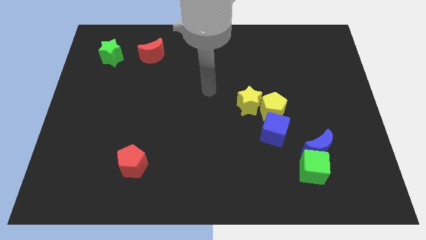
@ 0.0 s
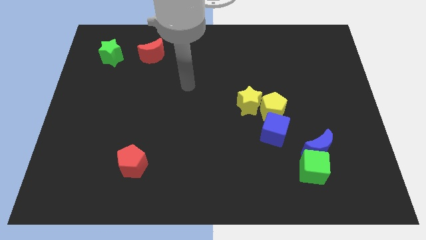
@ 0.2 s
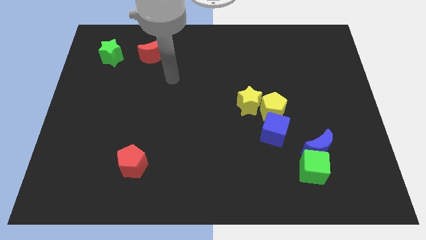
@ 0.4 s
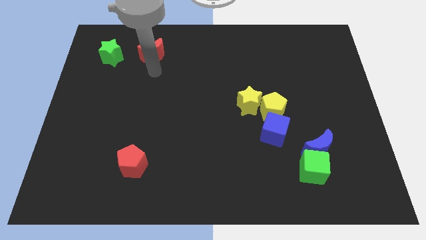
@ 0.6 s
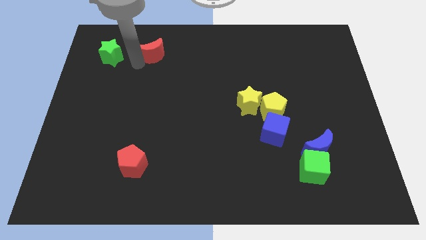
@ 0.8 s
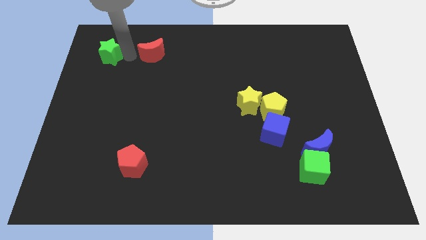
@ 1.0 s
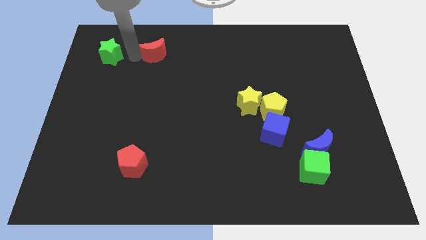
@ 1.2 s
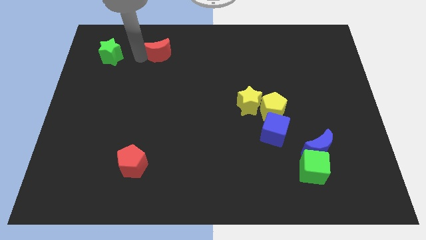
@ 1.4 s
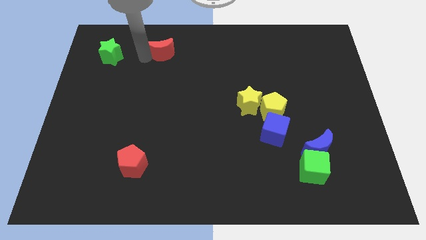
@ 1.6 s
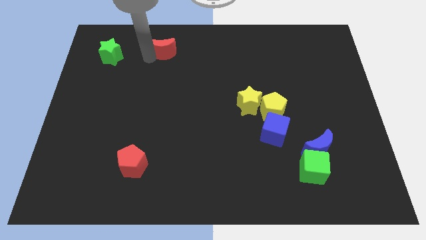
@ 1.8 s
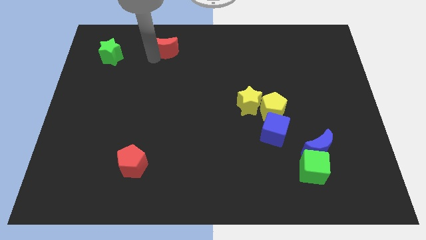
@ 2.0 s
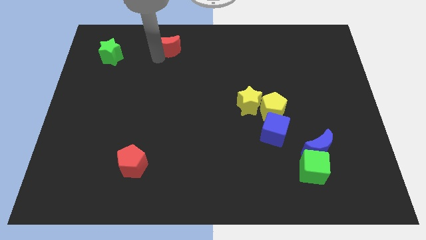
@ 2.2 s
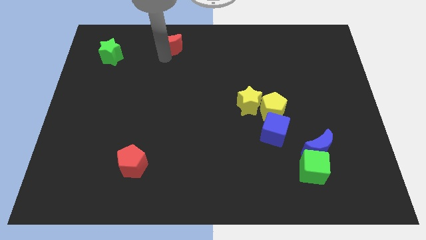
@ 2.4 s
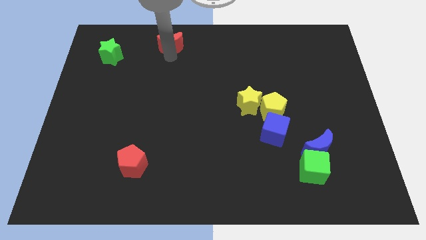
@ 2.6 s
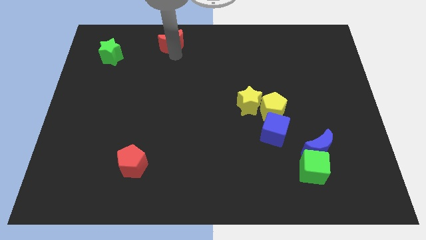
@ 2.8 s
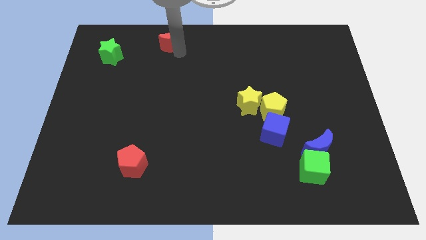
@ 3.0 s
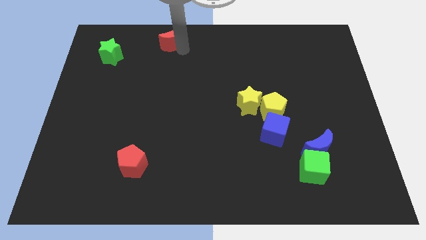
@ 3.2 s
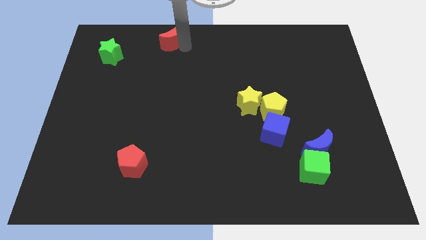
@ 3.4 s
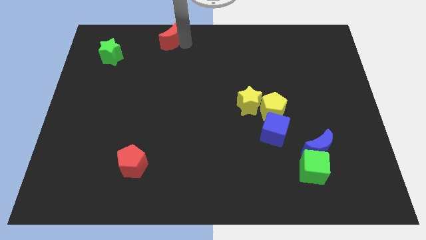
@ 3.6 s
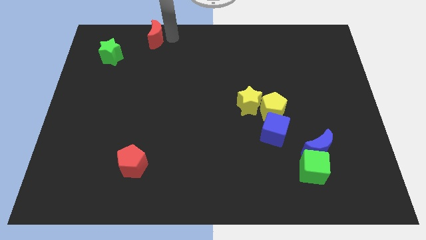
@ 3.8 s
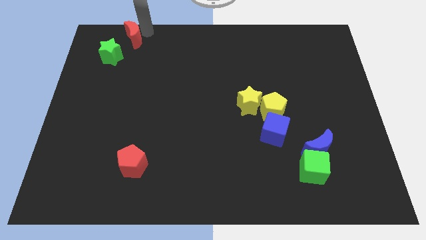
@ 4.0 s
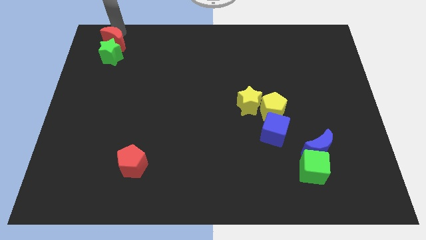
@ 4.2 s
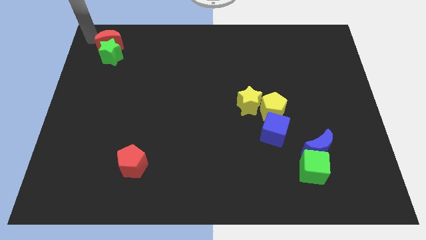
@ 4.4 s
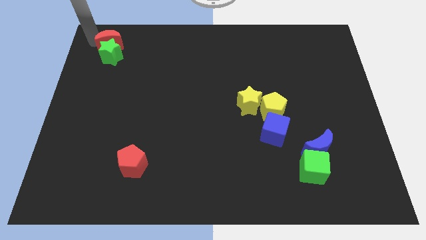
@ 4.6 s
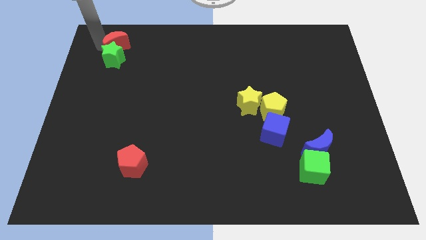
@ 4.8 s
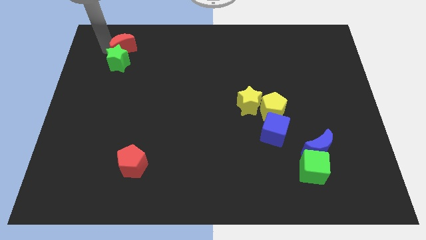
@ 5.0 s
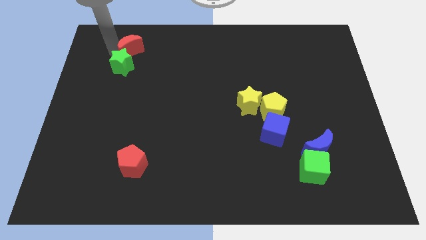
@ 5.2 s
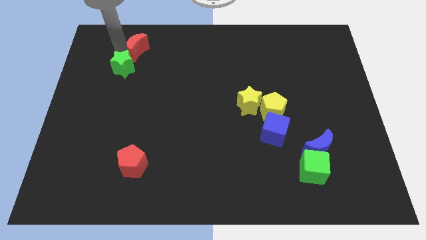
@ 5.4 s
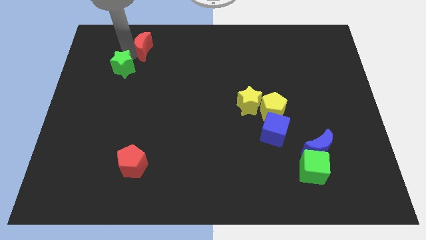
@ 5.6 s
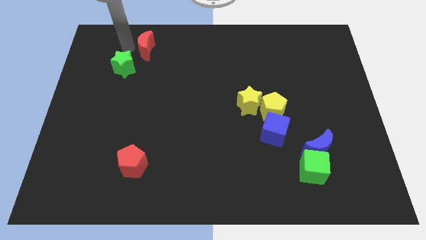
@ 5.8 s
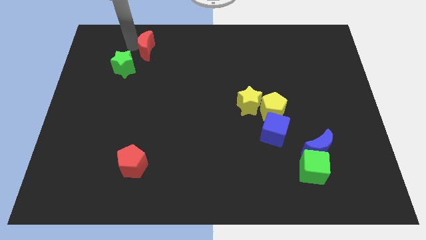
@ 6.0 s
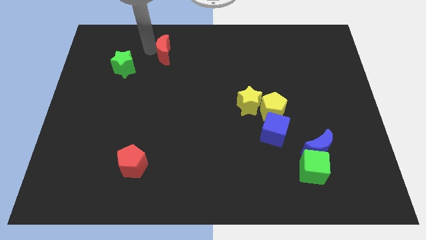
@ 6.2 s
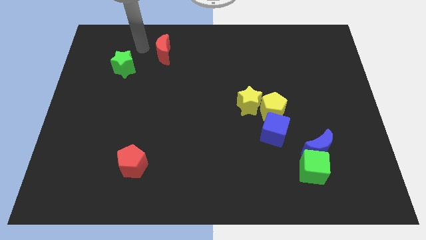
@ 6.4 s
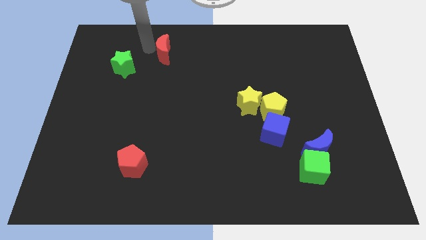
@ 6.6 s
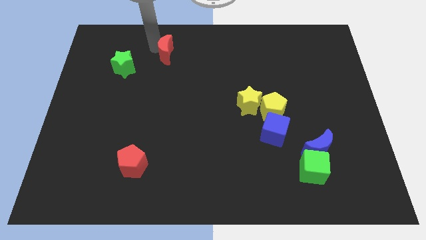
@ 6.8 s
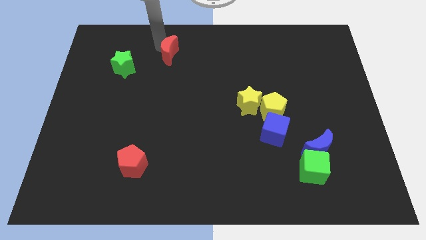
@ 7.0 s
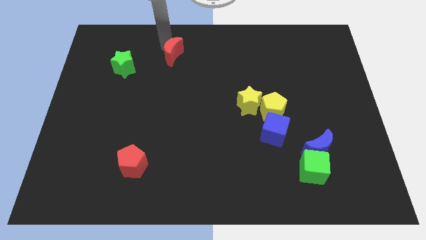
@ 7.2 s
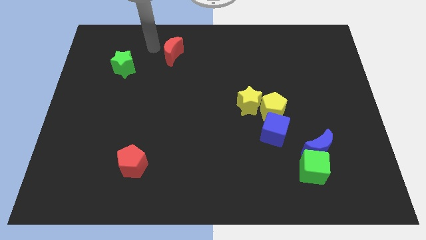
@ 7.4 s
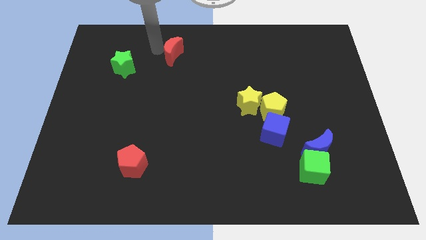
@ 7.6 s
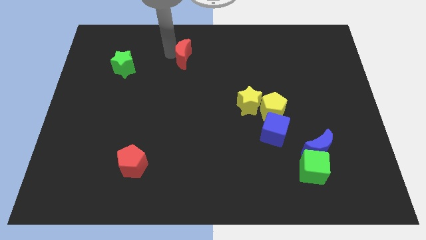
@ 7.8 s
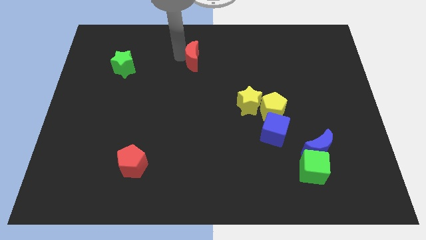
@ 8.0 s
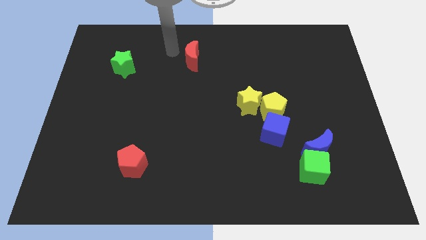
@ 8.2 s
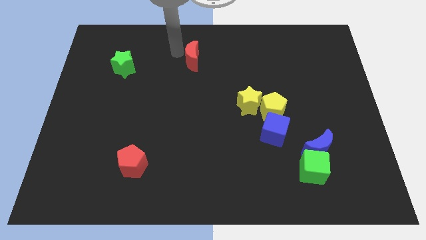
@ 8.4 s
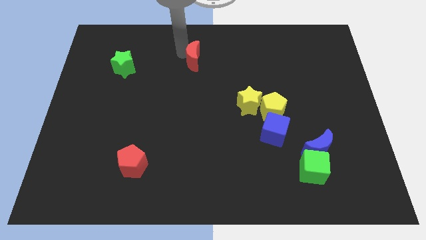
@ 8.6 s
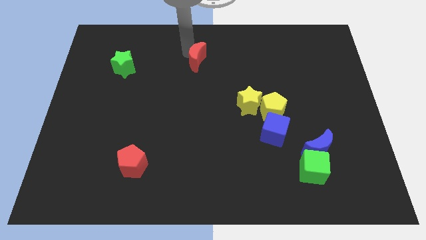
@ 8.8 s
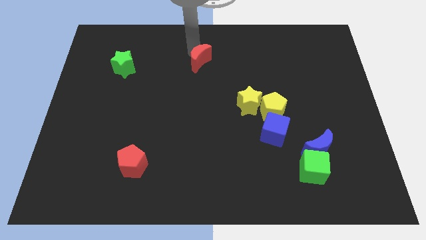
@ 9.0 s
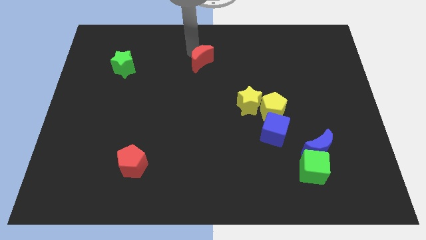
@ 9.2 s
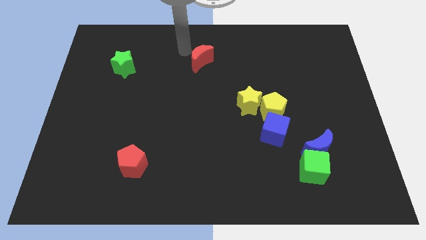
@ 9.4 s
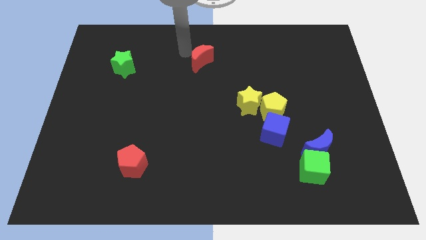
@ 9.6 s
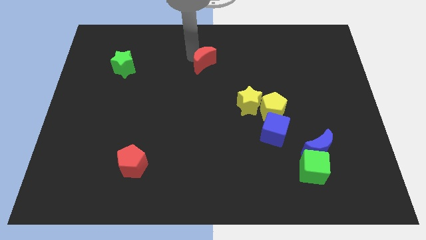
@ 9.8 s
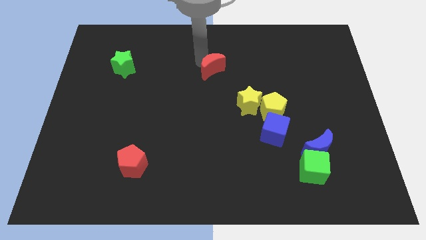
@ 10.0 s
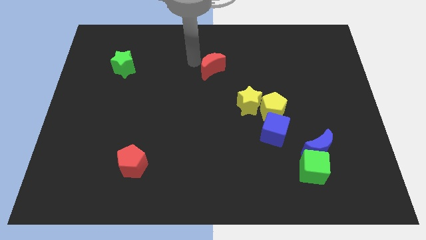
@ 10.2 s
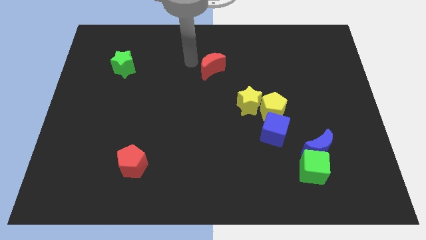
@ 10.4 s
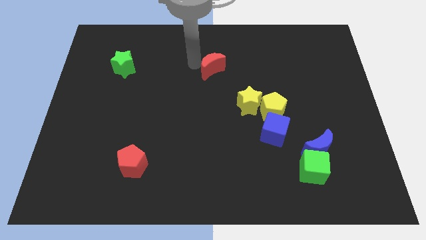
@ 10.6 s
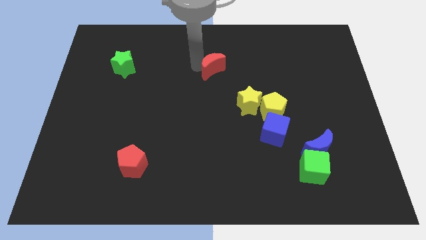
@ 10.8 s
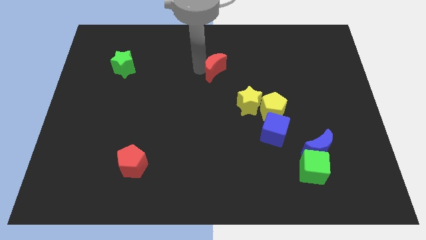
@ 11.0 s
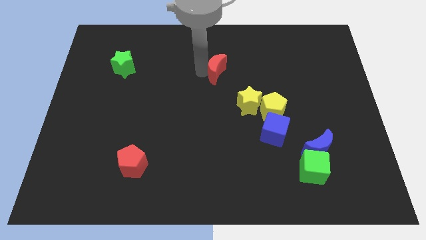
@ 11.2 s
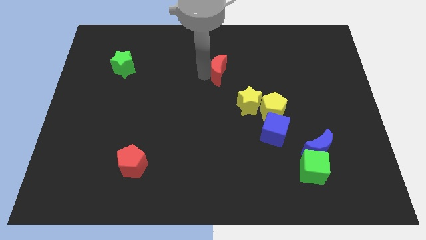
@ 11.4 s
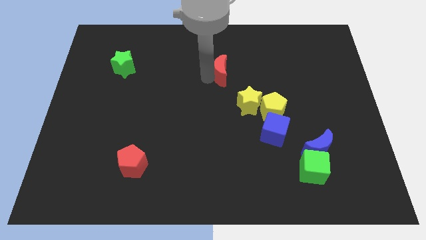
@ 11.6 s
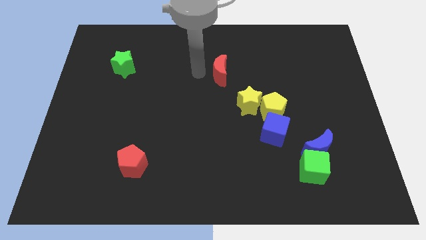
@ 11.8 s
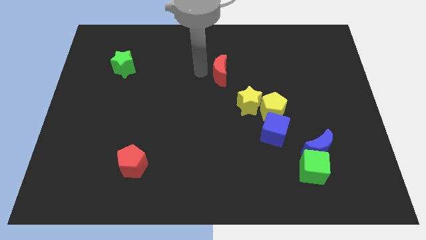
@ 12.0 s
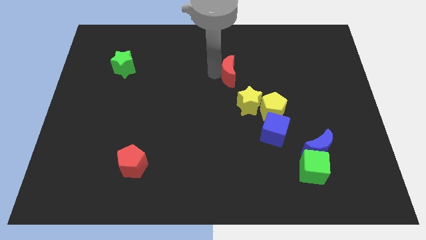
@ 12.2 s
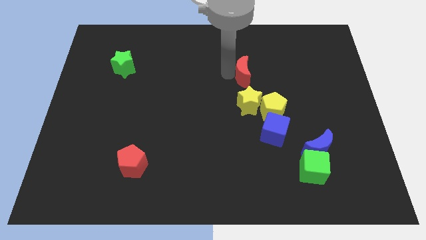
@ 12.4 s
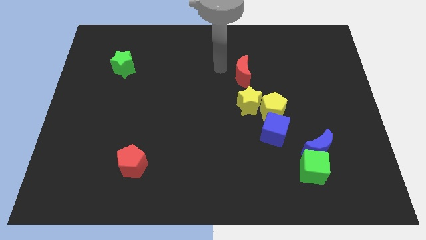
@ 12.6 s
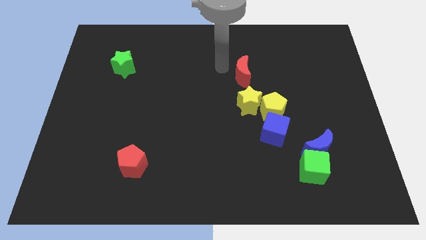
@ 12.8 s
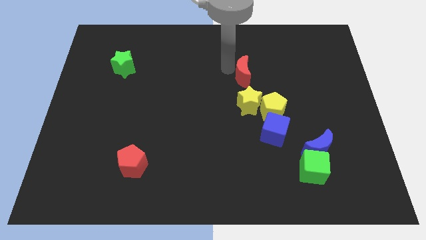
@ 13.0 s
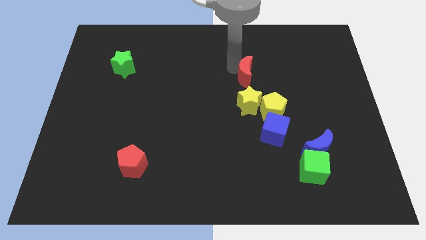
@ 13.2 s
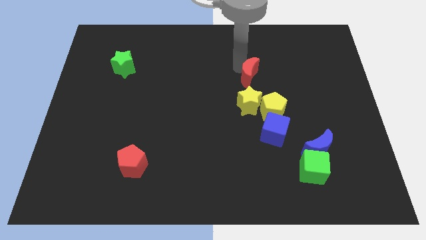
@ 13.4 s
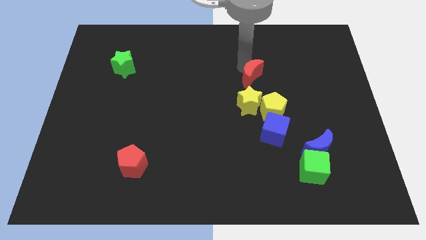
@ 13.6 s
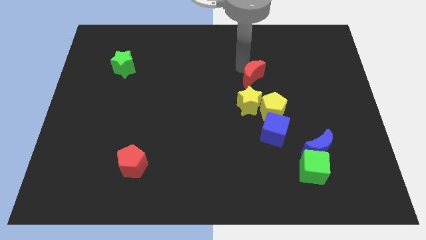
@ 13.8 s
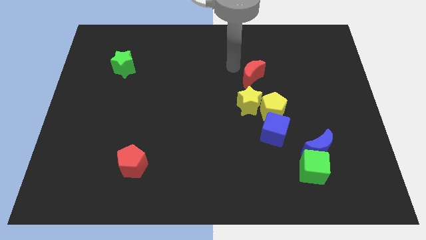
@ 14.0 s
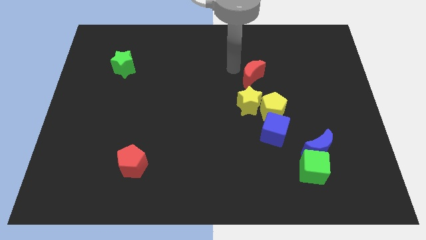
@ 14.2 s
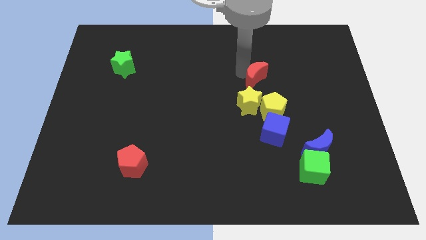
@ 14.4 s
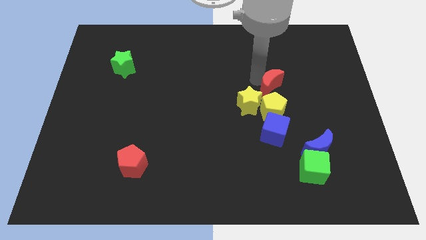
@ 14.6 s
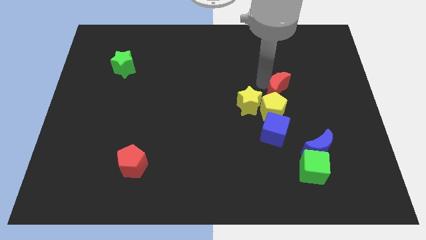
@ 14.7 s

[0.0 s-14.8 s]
push the red moon to the top right side of the yellow pentagon
